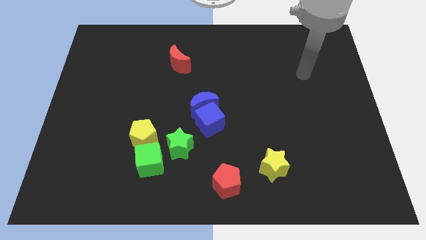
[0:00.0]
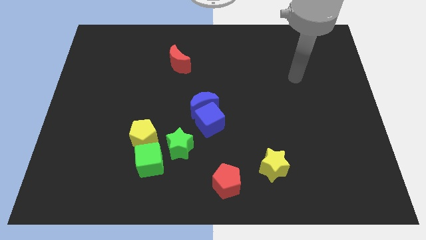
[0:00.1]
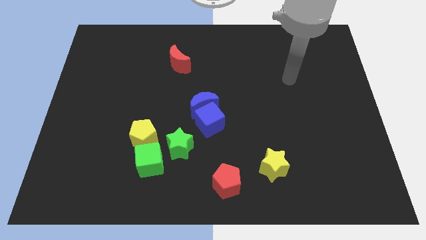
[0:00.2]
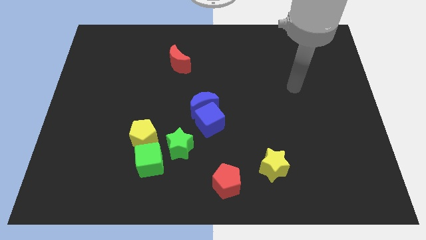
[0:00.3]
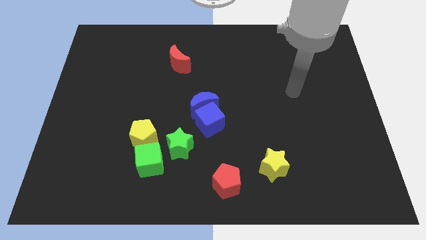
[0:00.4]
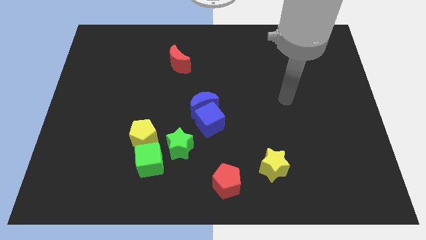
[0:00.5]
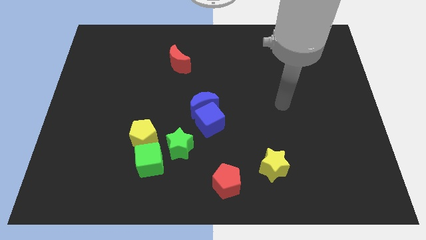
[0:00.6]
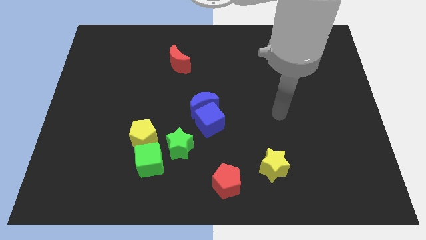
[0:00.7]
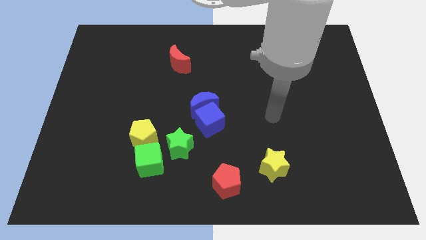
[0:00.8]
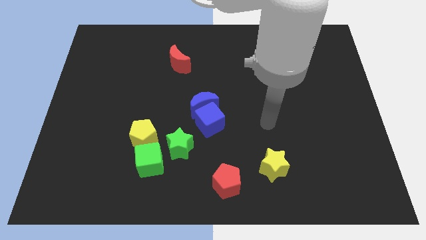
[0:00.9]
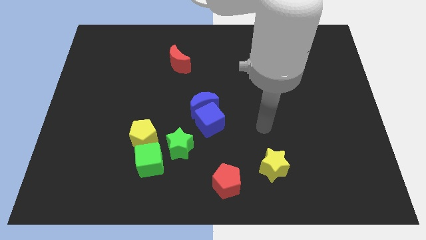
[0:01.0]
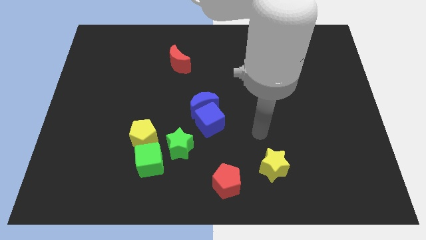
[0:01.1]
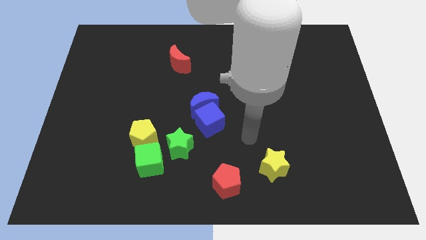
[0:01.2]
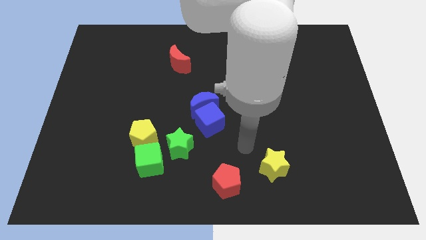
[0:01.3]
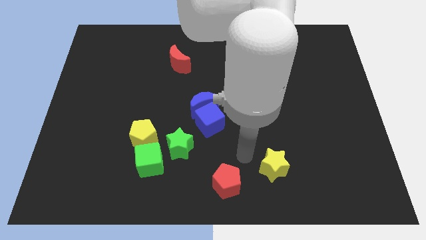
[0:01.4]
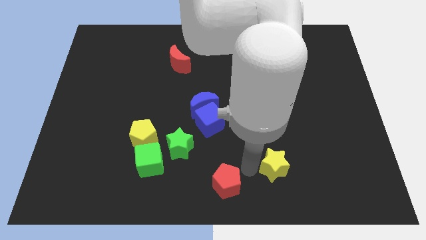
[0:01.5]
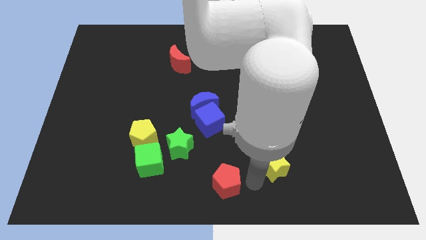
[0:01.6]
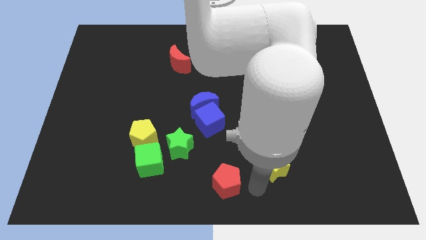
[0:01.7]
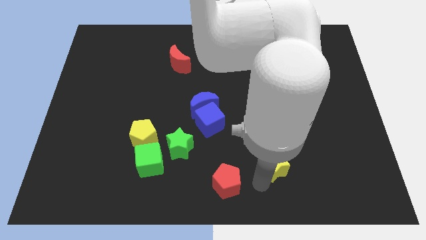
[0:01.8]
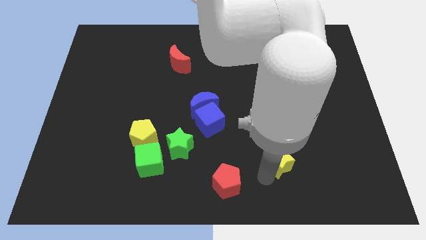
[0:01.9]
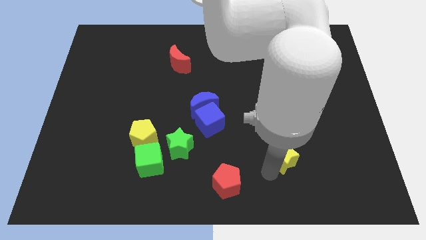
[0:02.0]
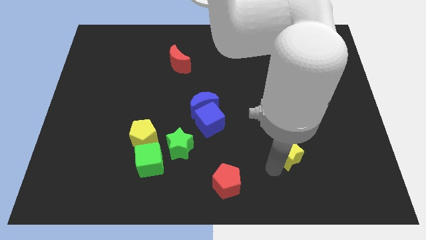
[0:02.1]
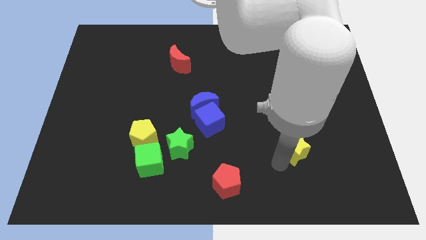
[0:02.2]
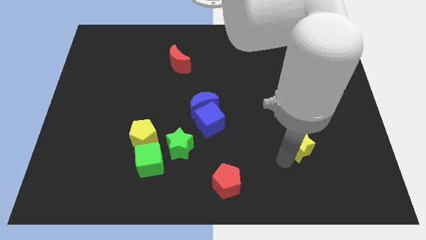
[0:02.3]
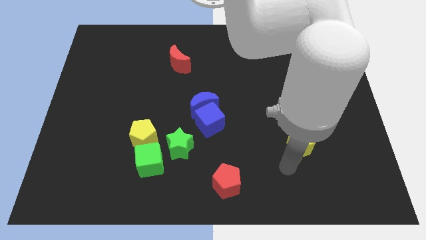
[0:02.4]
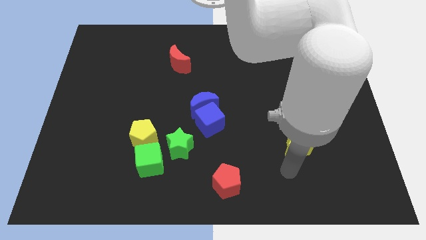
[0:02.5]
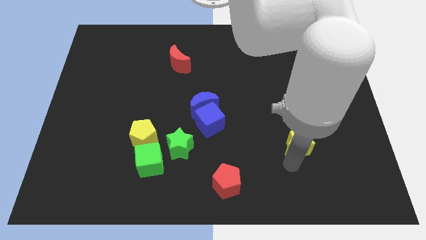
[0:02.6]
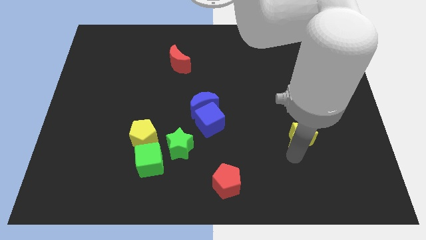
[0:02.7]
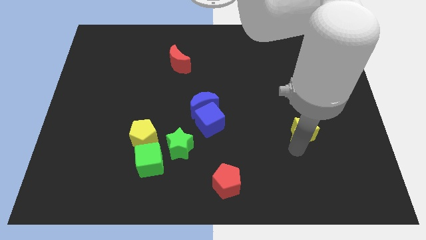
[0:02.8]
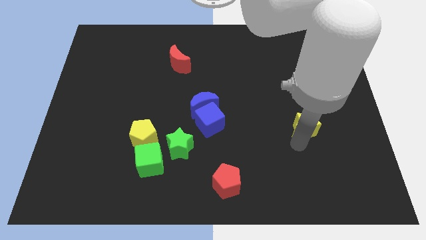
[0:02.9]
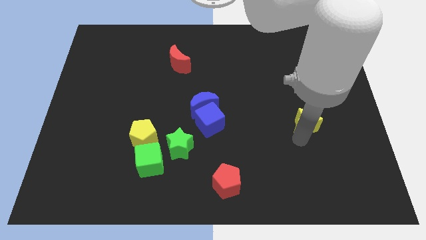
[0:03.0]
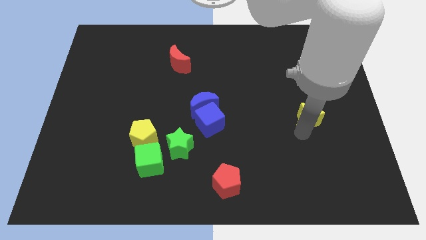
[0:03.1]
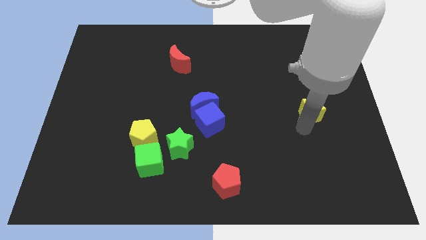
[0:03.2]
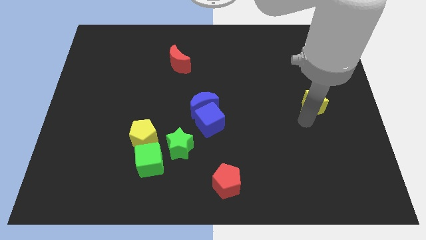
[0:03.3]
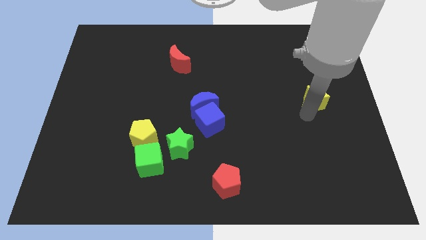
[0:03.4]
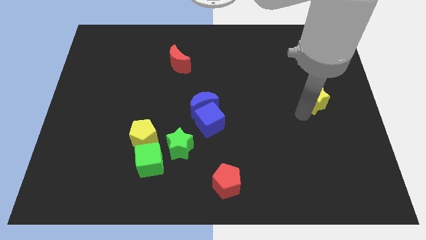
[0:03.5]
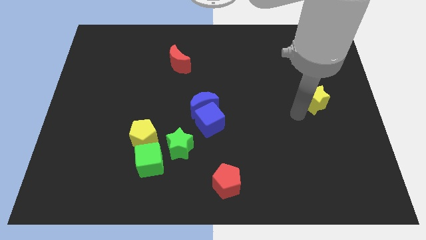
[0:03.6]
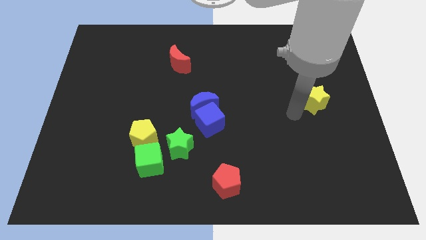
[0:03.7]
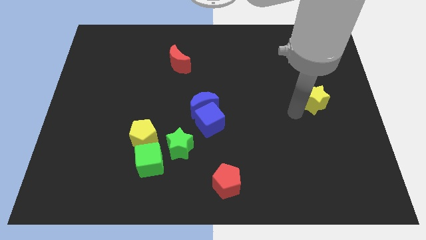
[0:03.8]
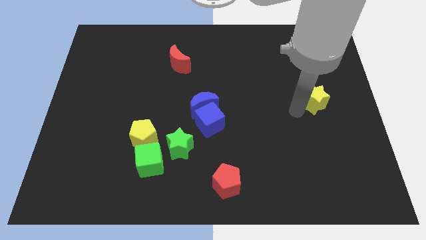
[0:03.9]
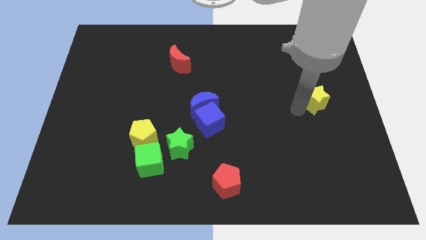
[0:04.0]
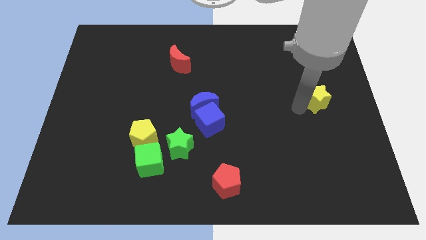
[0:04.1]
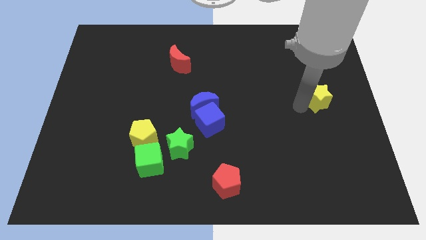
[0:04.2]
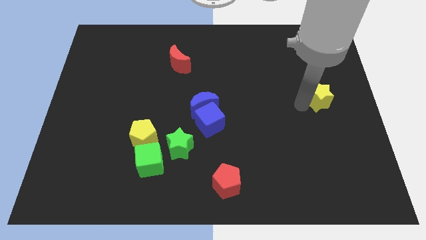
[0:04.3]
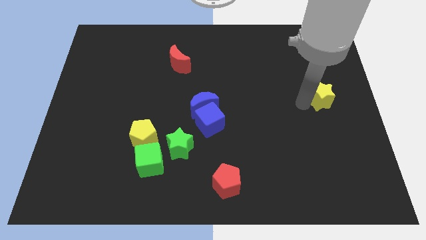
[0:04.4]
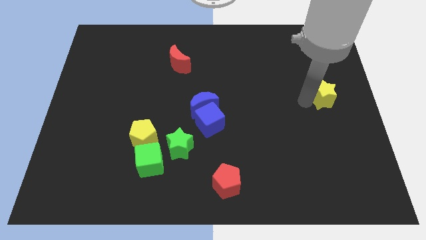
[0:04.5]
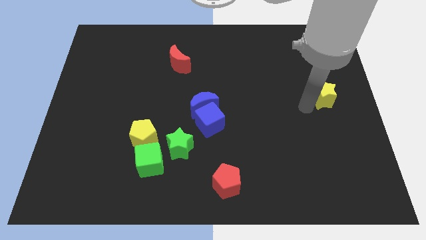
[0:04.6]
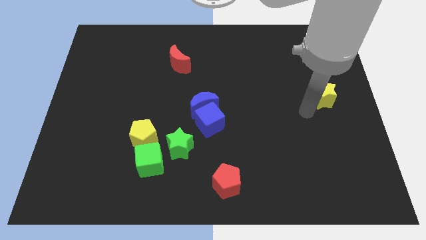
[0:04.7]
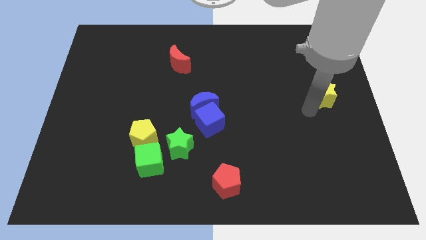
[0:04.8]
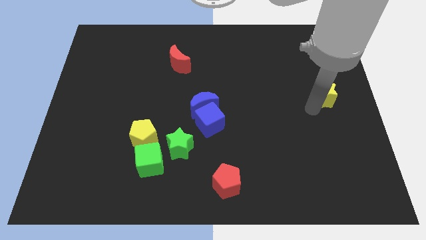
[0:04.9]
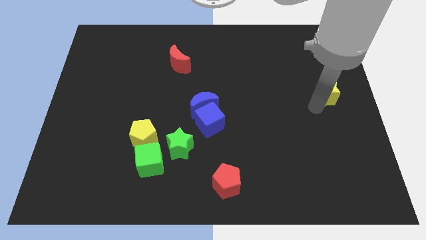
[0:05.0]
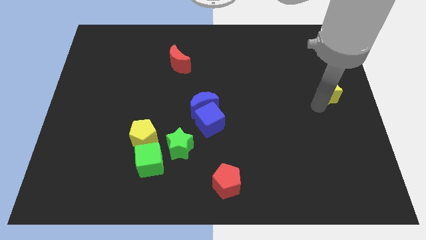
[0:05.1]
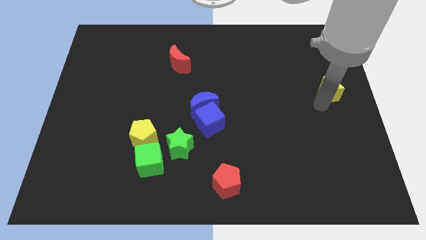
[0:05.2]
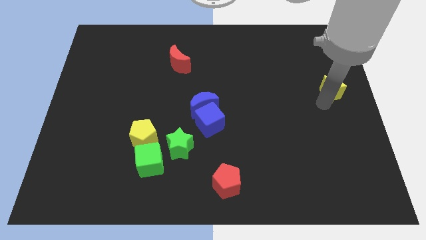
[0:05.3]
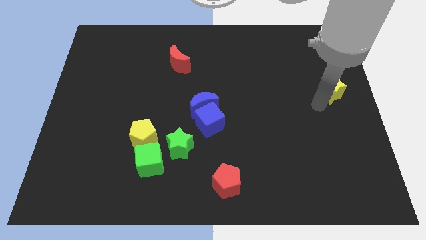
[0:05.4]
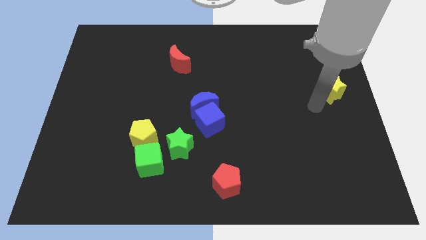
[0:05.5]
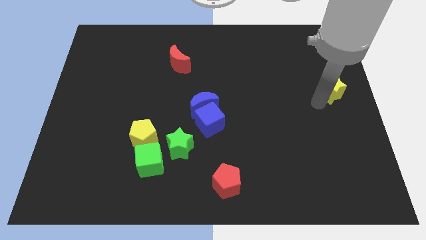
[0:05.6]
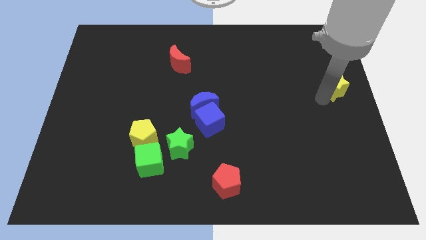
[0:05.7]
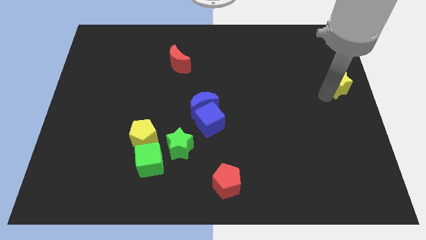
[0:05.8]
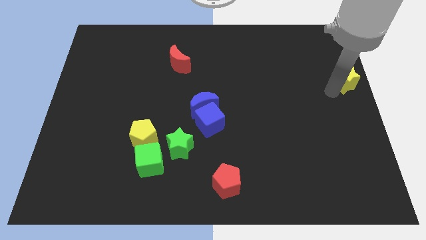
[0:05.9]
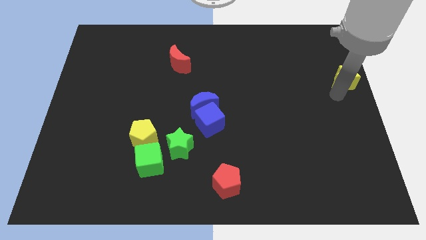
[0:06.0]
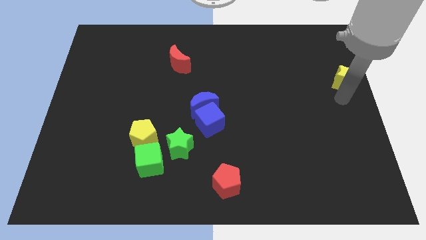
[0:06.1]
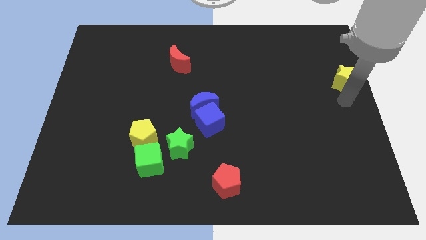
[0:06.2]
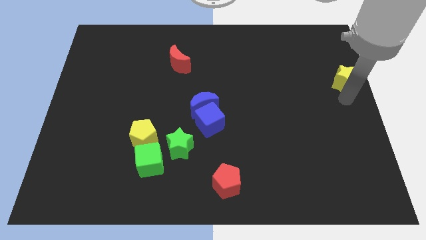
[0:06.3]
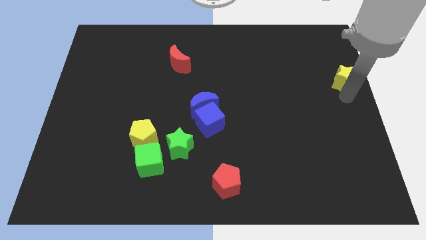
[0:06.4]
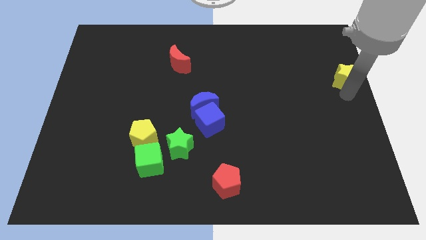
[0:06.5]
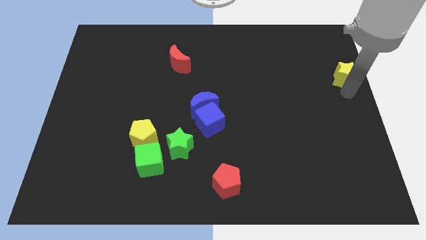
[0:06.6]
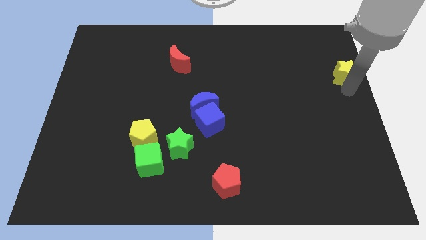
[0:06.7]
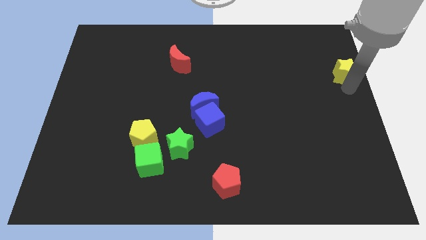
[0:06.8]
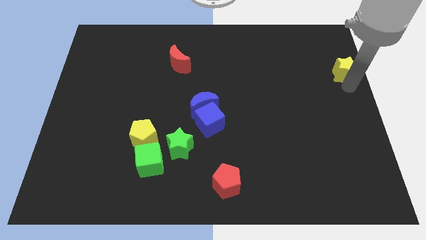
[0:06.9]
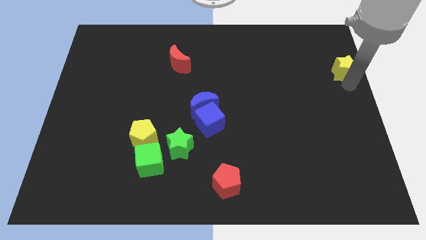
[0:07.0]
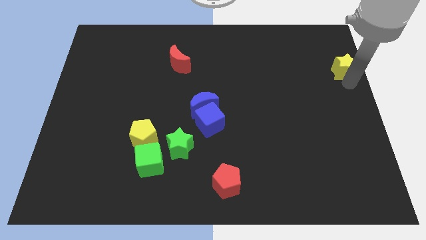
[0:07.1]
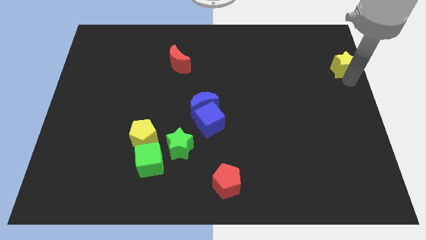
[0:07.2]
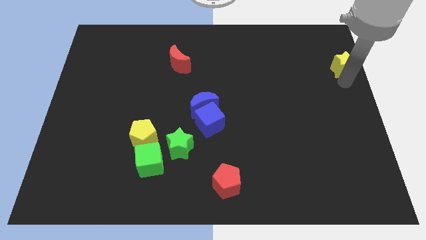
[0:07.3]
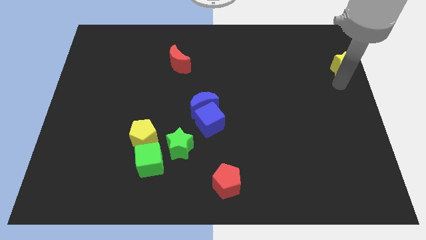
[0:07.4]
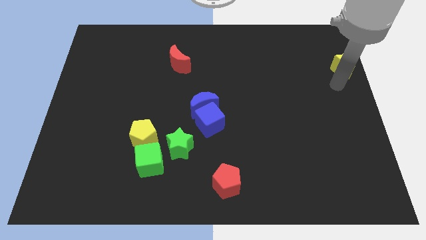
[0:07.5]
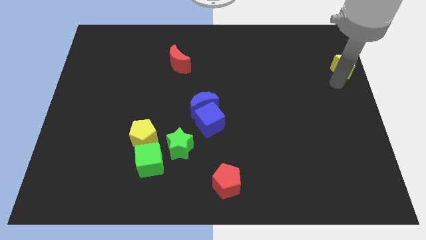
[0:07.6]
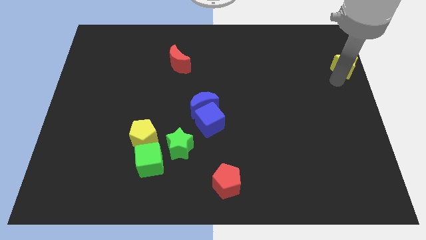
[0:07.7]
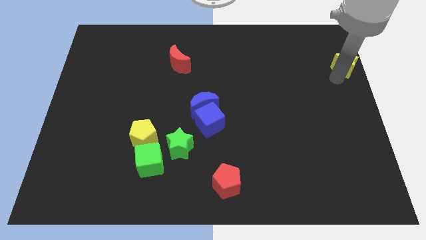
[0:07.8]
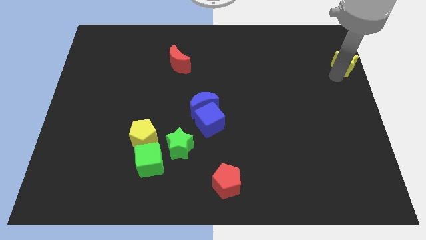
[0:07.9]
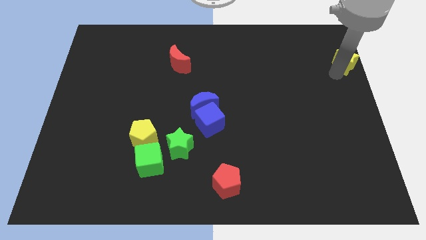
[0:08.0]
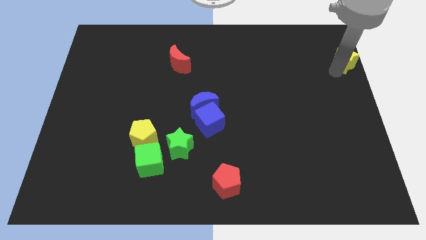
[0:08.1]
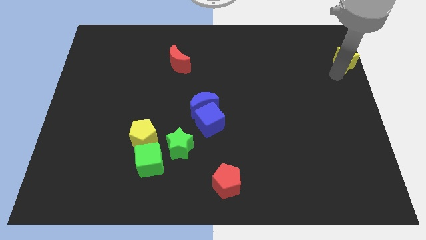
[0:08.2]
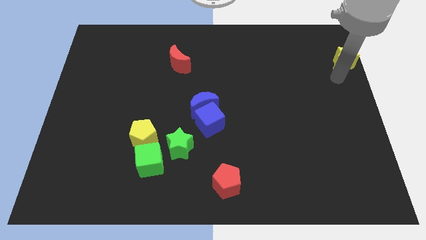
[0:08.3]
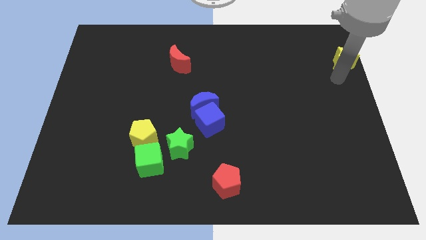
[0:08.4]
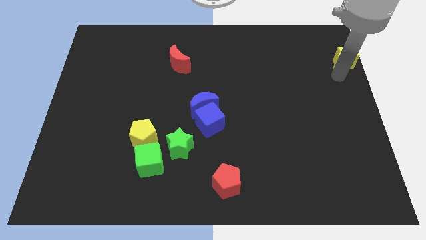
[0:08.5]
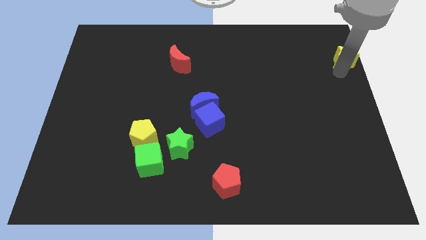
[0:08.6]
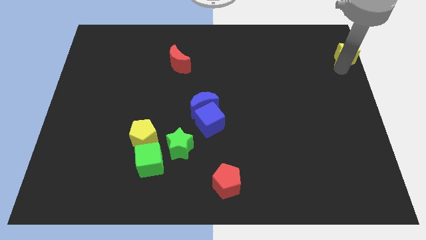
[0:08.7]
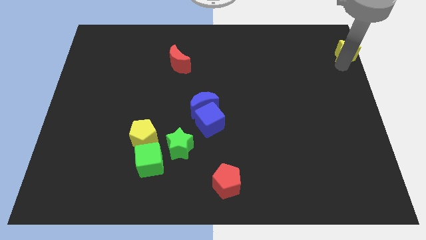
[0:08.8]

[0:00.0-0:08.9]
push the yellow star to the top right of the board
